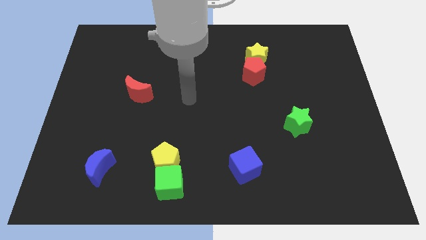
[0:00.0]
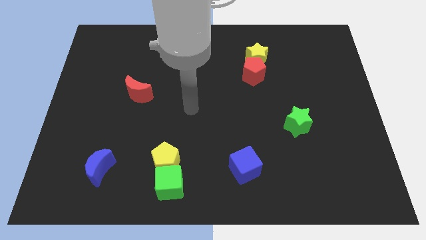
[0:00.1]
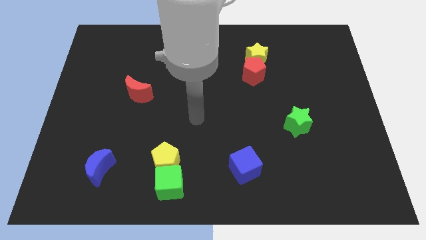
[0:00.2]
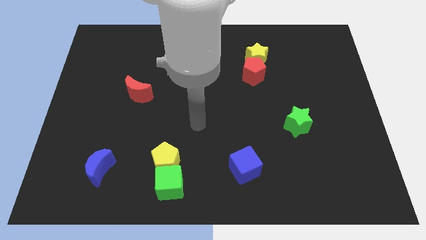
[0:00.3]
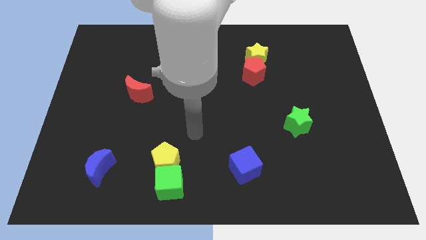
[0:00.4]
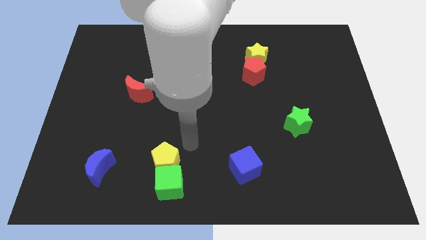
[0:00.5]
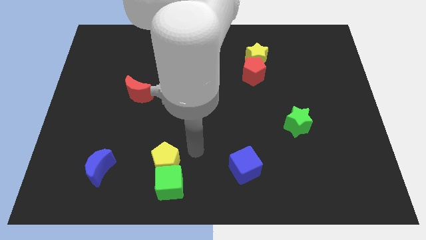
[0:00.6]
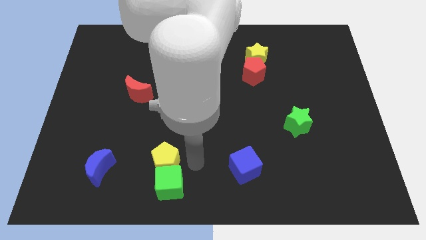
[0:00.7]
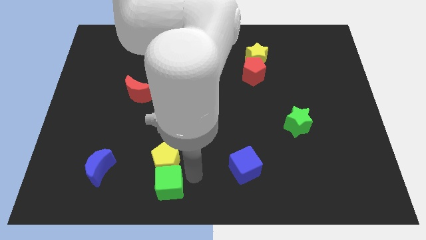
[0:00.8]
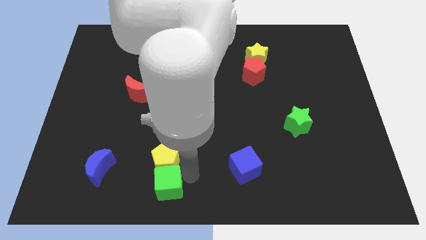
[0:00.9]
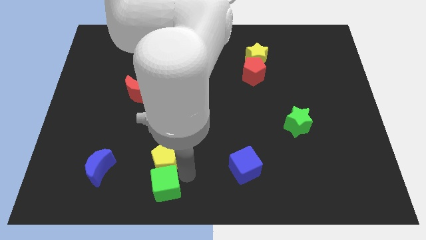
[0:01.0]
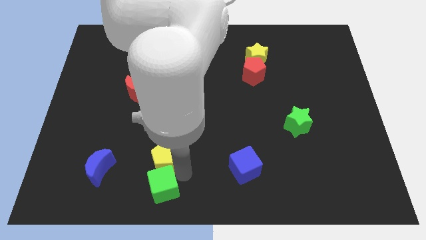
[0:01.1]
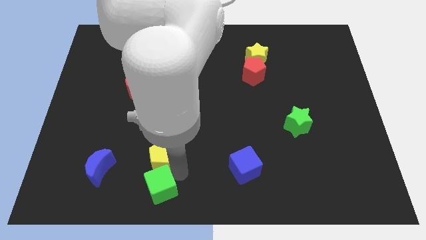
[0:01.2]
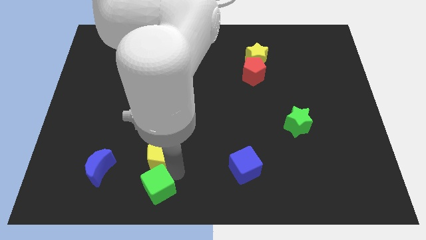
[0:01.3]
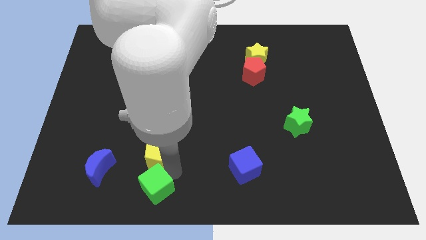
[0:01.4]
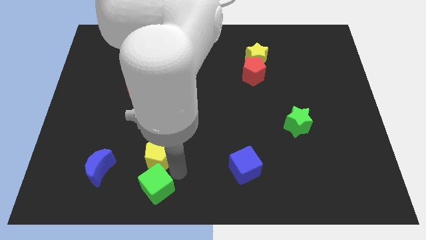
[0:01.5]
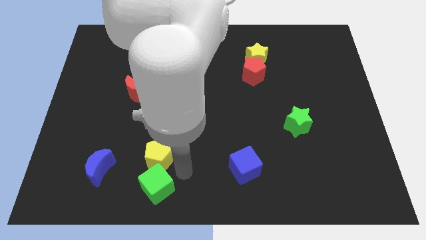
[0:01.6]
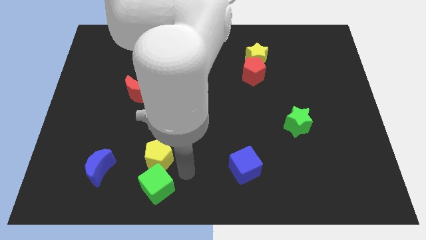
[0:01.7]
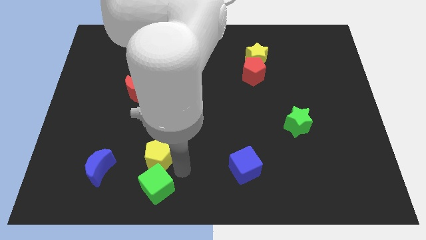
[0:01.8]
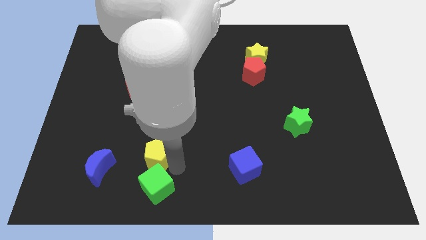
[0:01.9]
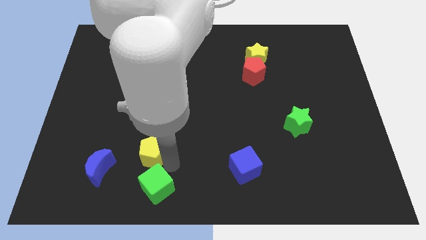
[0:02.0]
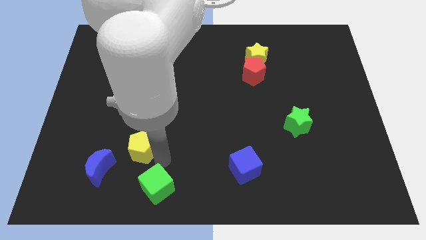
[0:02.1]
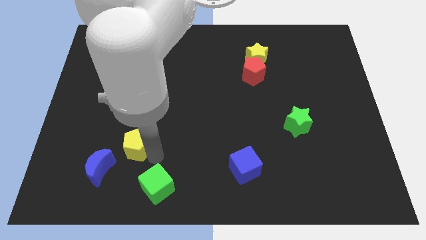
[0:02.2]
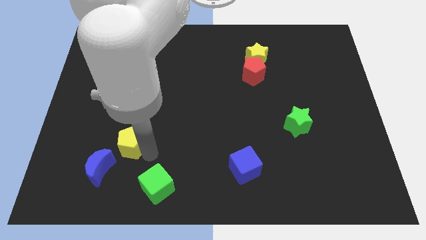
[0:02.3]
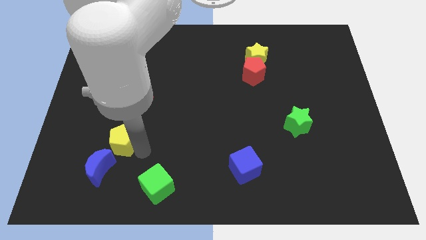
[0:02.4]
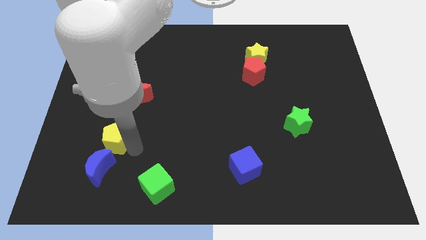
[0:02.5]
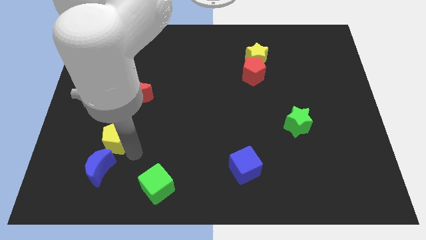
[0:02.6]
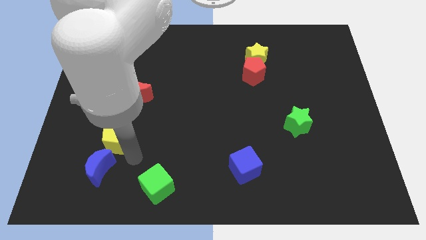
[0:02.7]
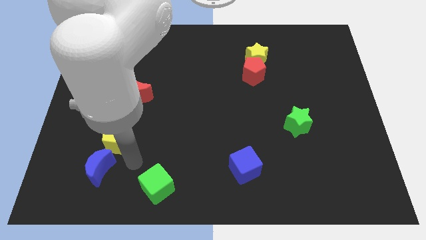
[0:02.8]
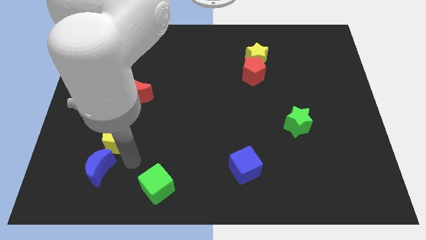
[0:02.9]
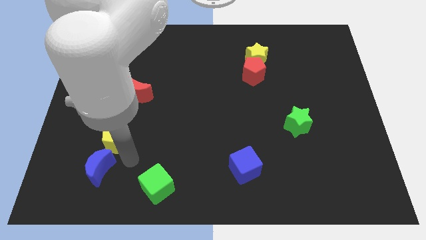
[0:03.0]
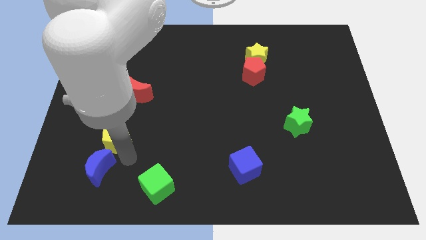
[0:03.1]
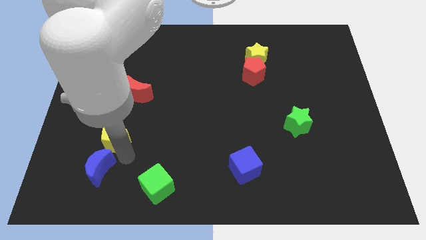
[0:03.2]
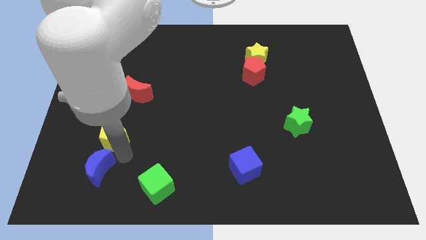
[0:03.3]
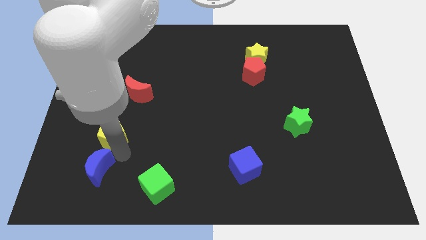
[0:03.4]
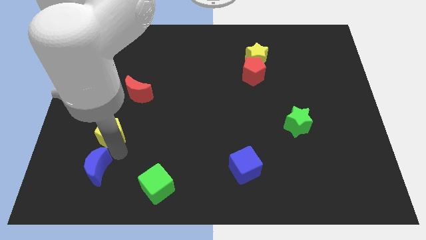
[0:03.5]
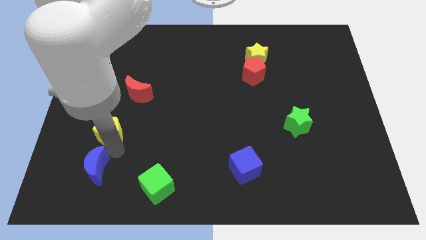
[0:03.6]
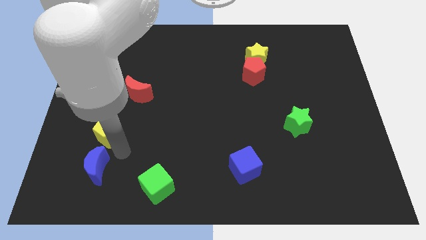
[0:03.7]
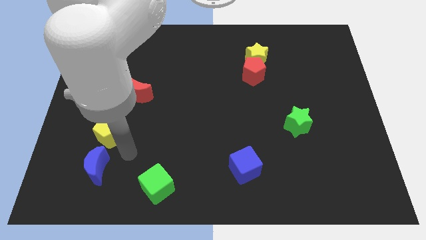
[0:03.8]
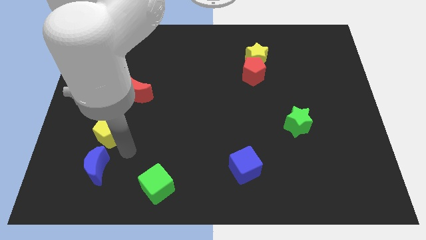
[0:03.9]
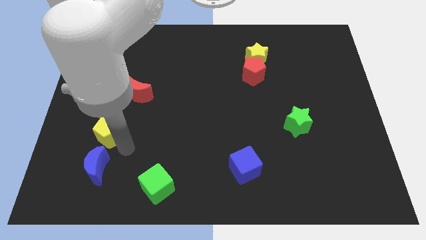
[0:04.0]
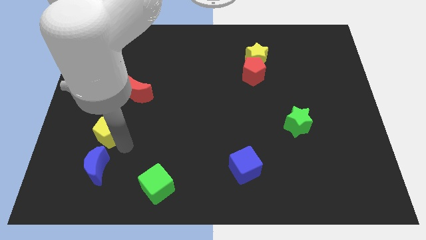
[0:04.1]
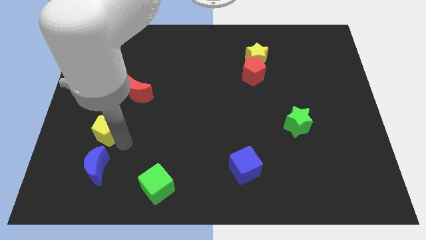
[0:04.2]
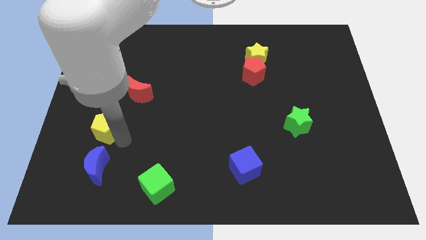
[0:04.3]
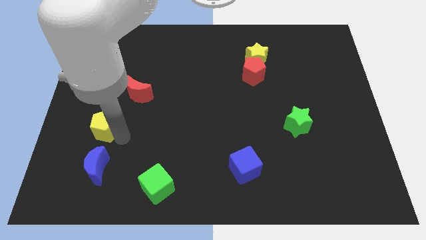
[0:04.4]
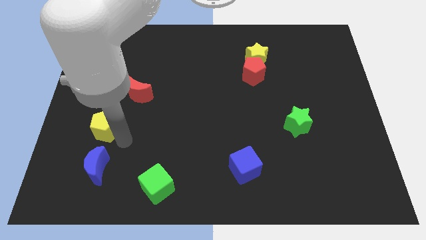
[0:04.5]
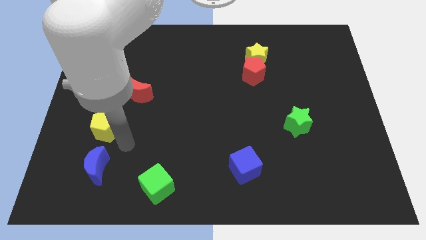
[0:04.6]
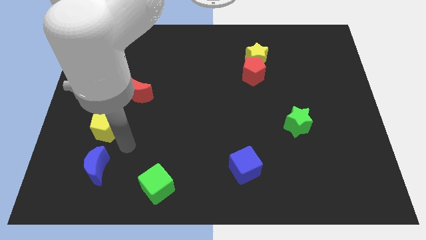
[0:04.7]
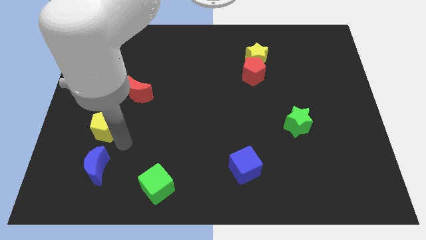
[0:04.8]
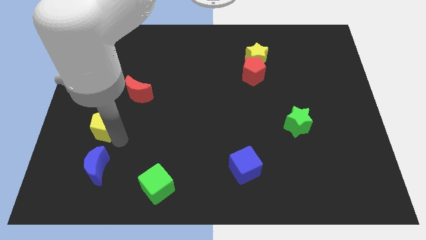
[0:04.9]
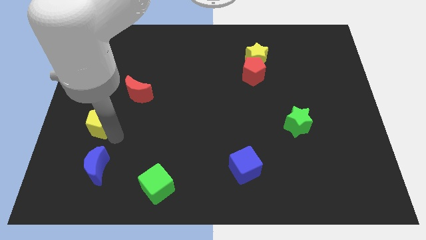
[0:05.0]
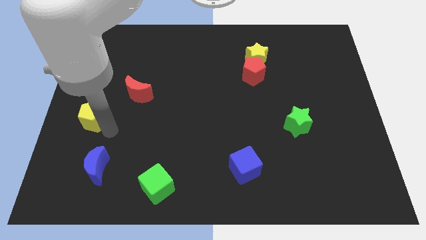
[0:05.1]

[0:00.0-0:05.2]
put the yellow pentagon to the center left

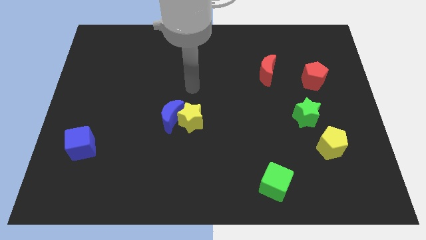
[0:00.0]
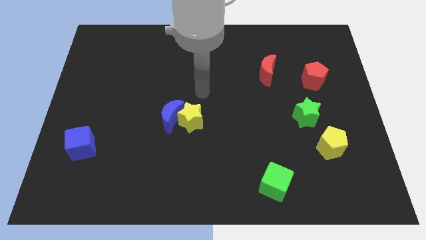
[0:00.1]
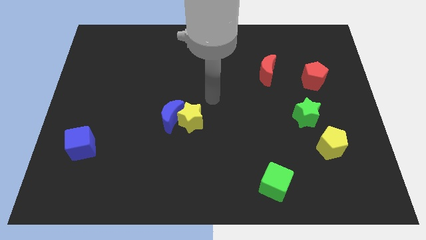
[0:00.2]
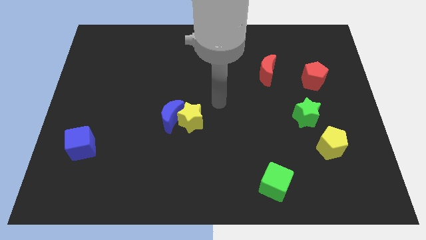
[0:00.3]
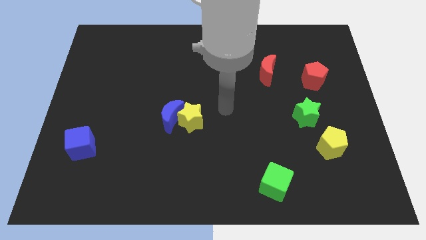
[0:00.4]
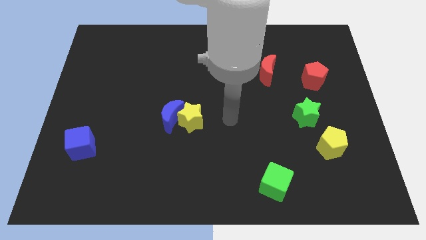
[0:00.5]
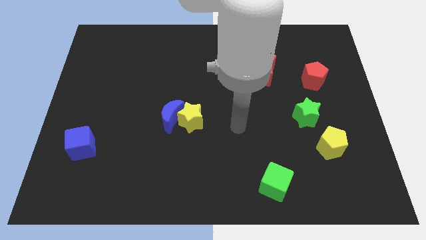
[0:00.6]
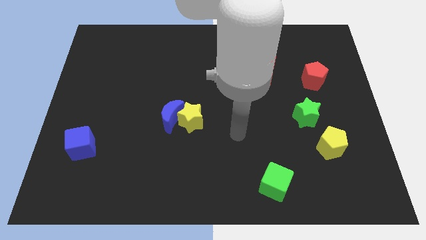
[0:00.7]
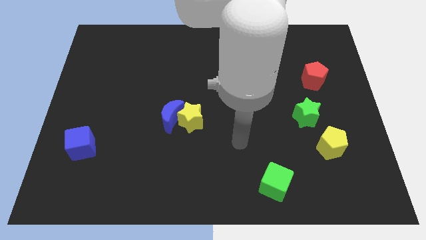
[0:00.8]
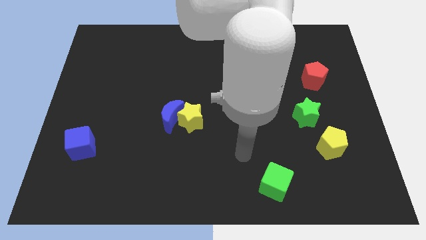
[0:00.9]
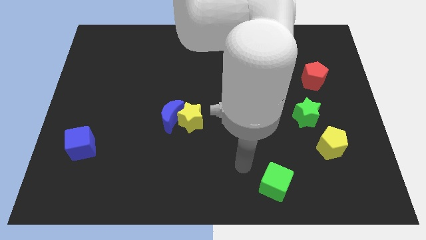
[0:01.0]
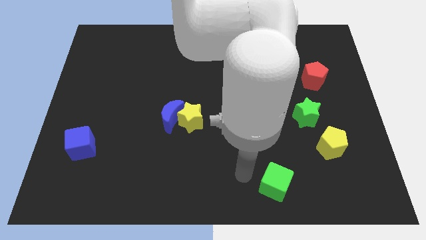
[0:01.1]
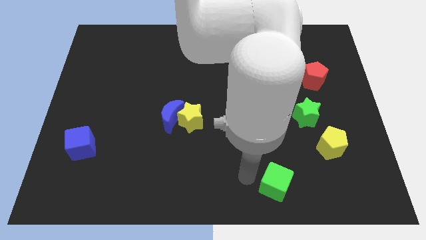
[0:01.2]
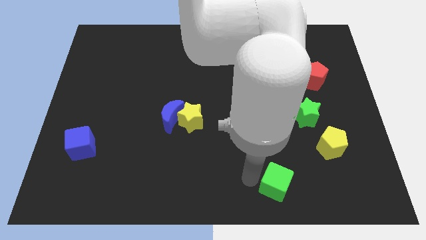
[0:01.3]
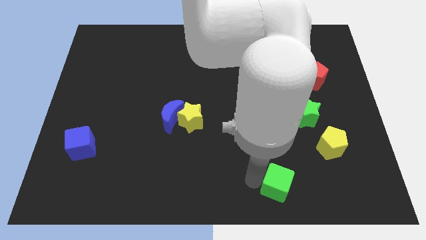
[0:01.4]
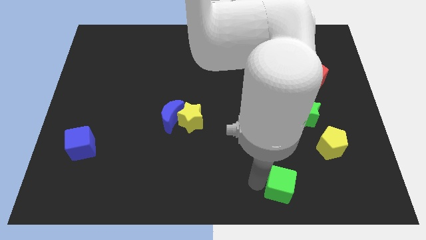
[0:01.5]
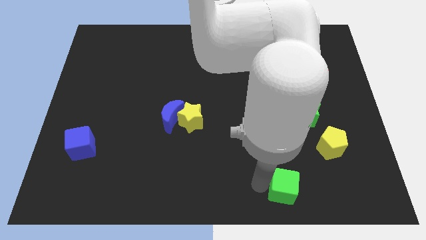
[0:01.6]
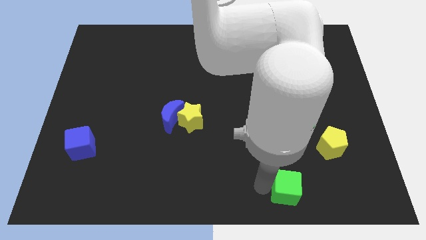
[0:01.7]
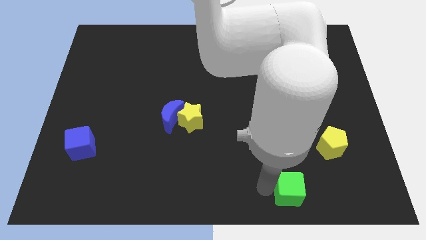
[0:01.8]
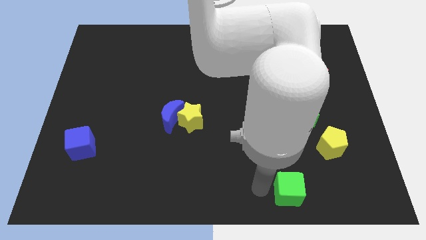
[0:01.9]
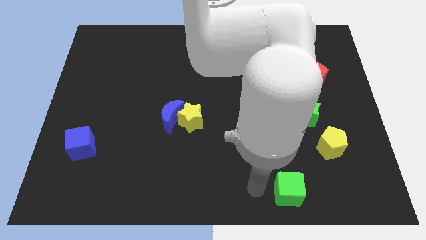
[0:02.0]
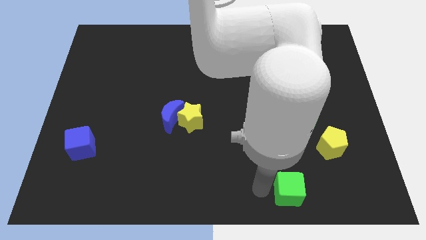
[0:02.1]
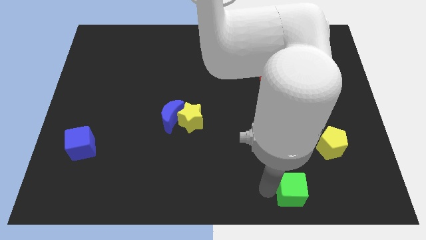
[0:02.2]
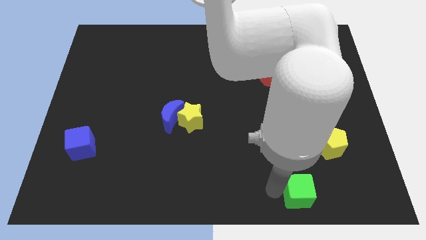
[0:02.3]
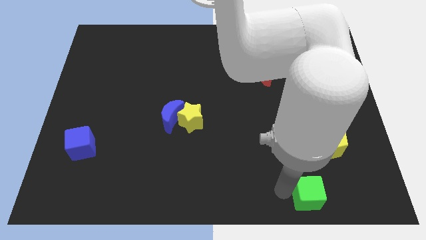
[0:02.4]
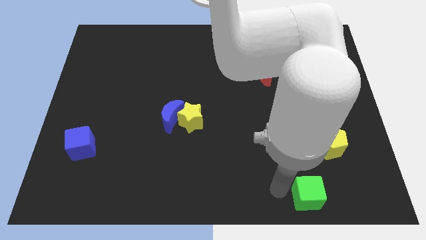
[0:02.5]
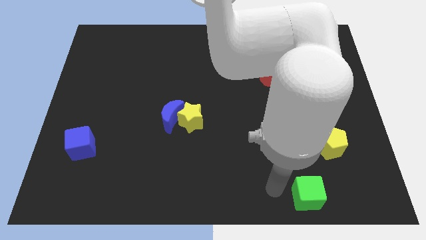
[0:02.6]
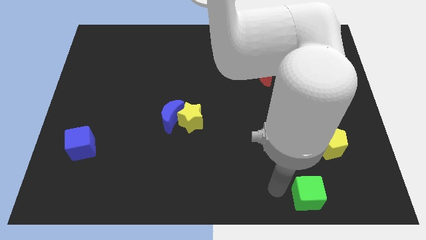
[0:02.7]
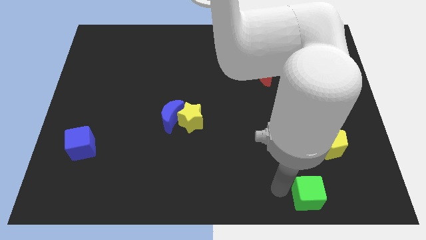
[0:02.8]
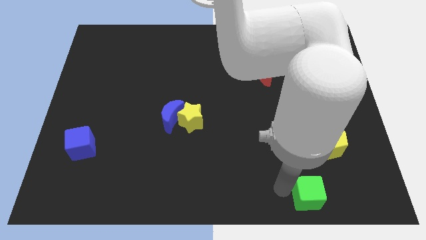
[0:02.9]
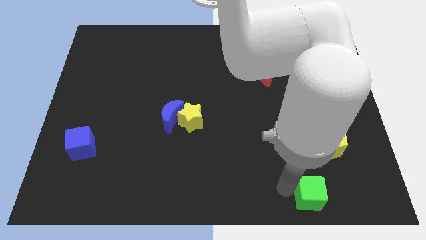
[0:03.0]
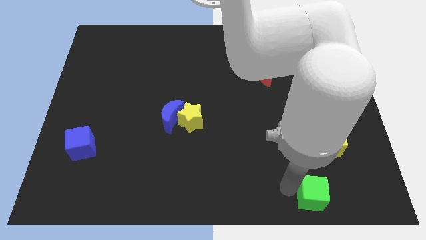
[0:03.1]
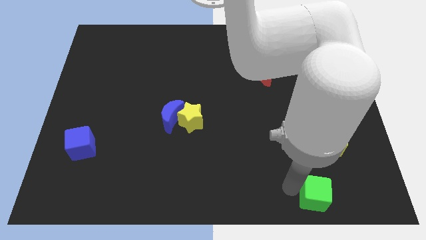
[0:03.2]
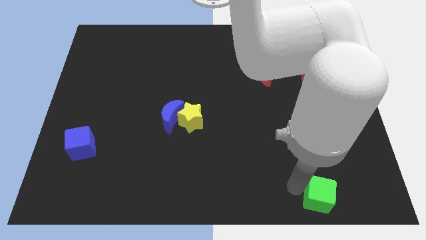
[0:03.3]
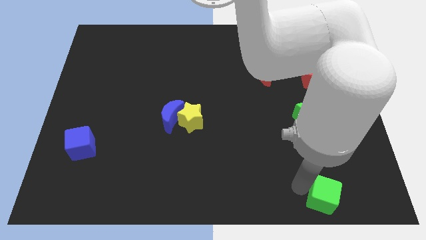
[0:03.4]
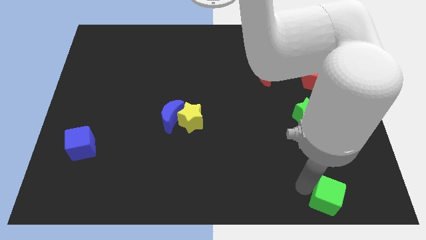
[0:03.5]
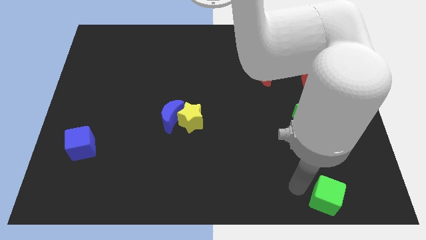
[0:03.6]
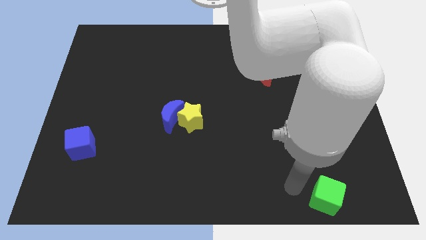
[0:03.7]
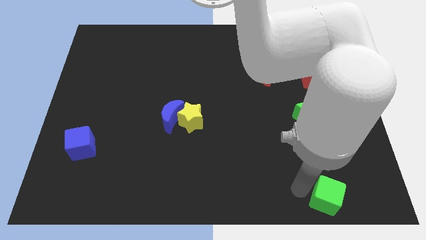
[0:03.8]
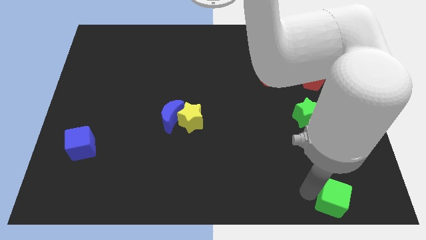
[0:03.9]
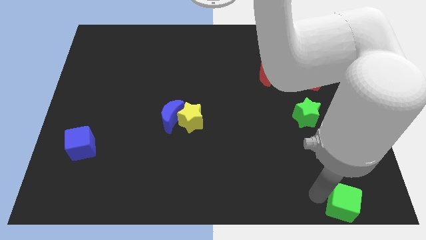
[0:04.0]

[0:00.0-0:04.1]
push the green cube to the lower right corner
